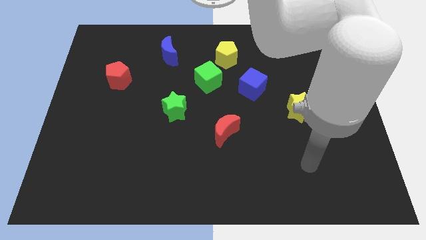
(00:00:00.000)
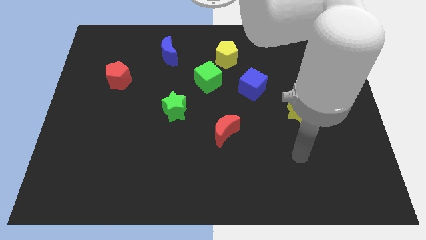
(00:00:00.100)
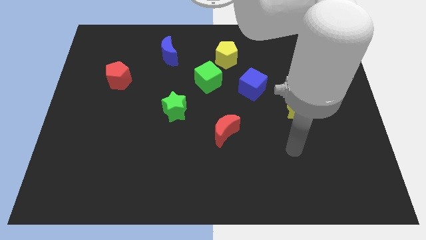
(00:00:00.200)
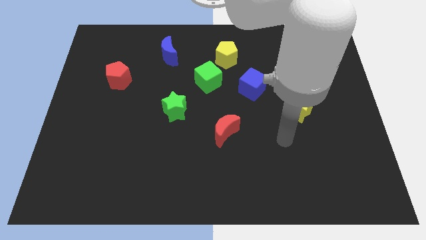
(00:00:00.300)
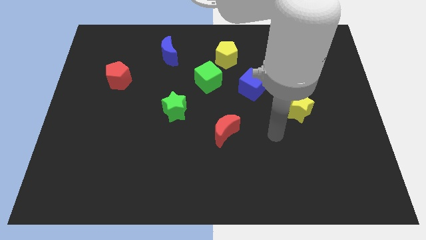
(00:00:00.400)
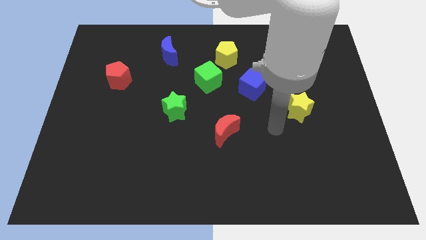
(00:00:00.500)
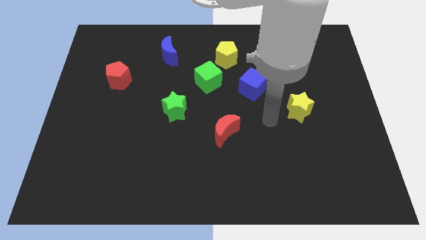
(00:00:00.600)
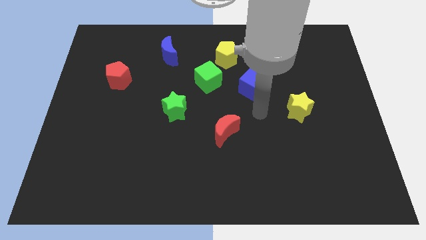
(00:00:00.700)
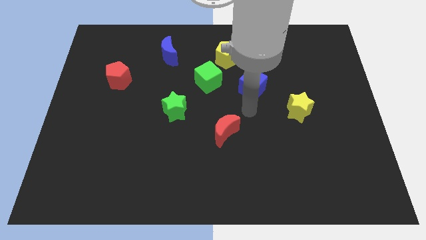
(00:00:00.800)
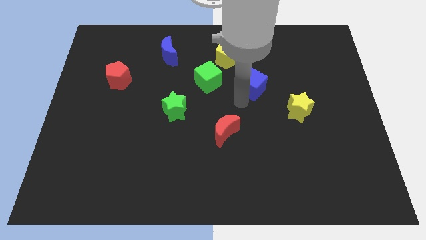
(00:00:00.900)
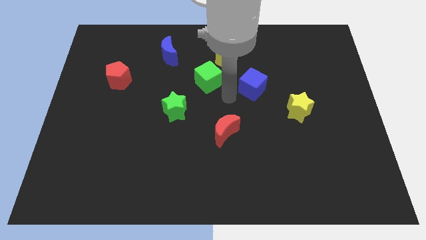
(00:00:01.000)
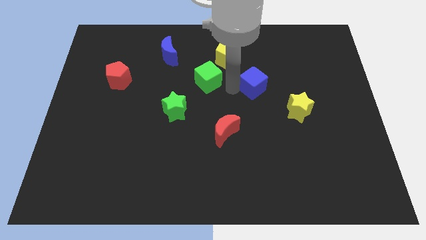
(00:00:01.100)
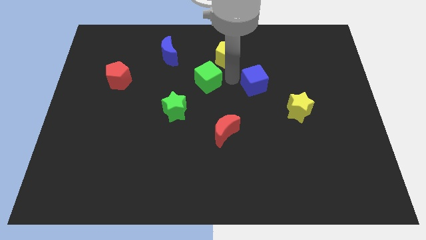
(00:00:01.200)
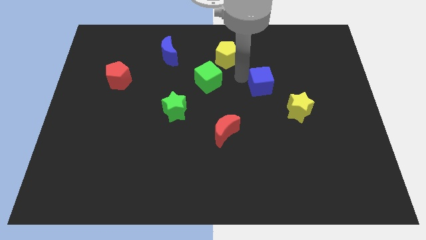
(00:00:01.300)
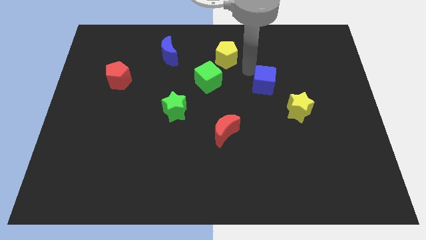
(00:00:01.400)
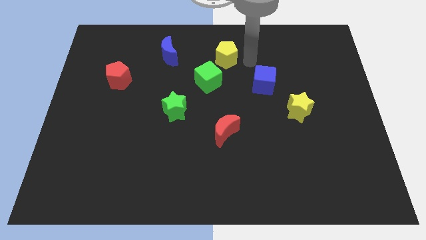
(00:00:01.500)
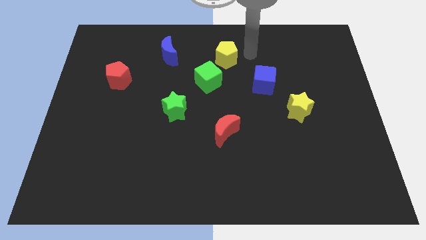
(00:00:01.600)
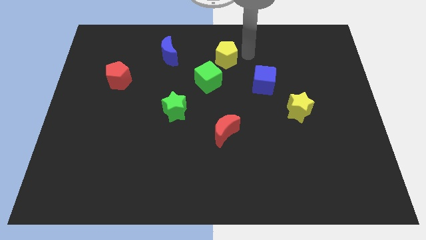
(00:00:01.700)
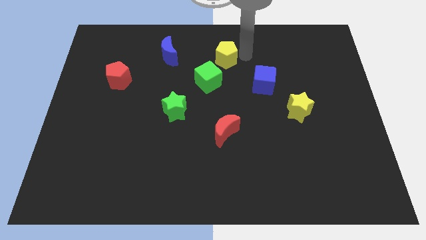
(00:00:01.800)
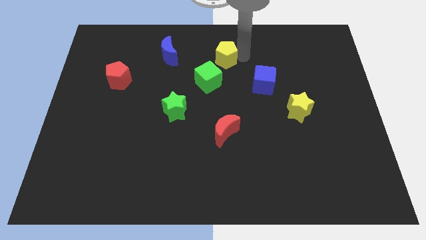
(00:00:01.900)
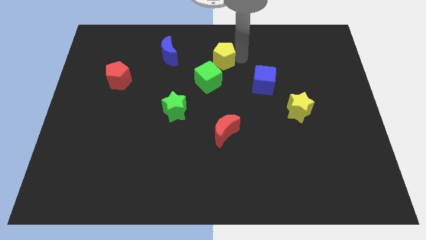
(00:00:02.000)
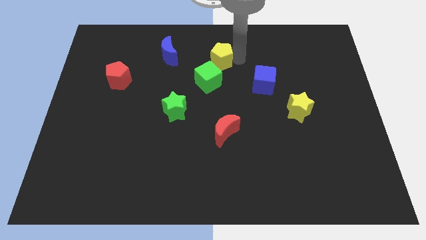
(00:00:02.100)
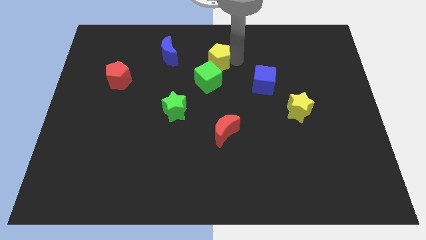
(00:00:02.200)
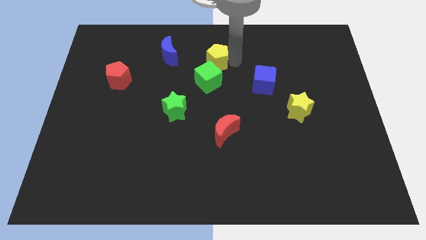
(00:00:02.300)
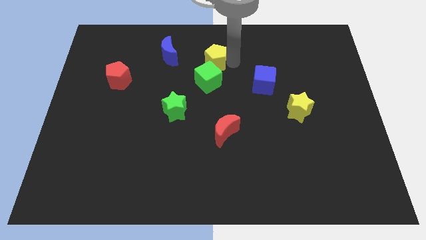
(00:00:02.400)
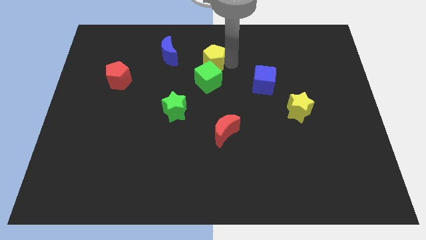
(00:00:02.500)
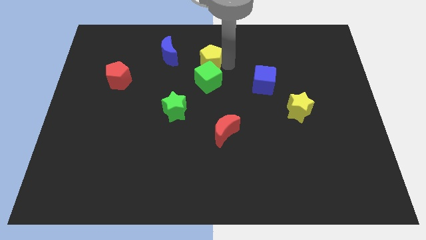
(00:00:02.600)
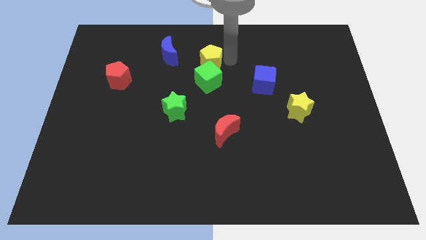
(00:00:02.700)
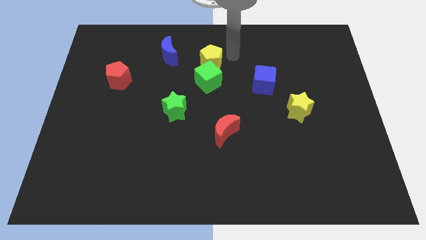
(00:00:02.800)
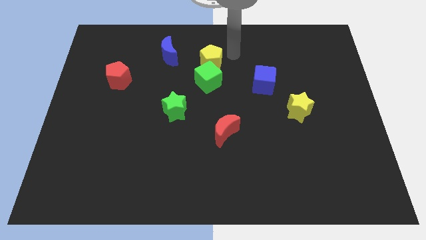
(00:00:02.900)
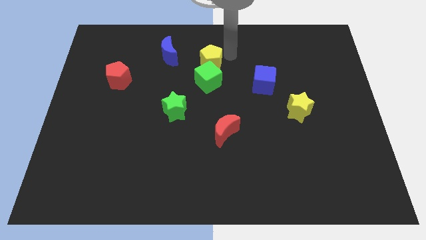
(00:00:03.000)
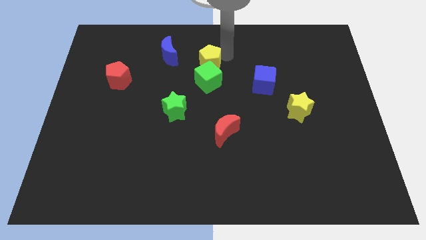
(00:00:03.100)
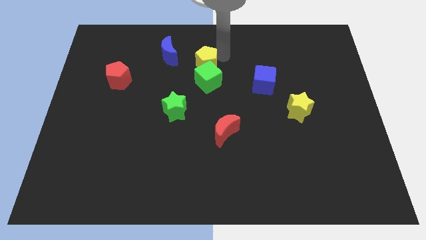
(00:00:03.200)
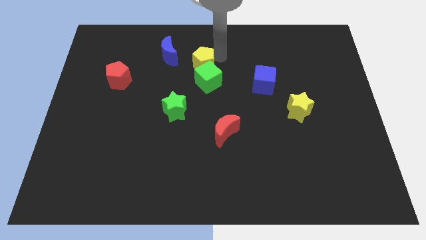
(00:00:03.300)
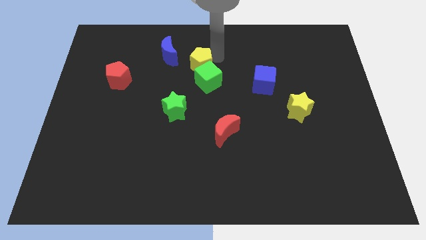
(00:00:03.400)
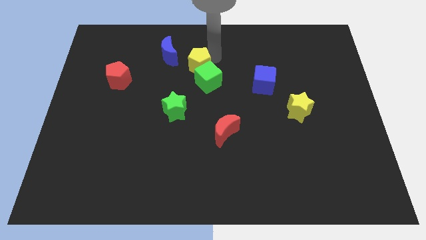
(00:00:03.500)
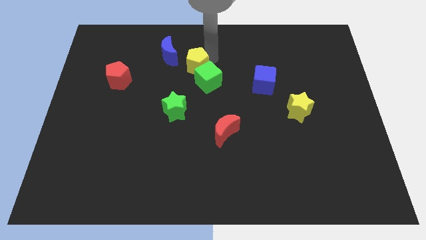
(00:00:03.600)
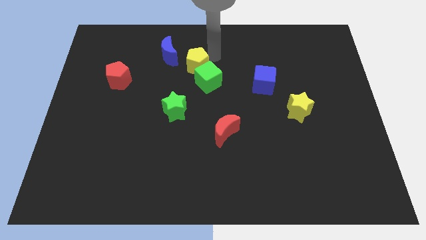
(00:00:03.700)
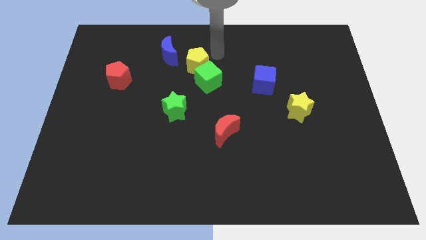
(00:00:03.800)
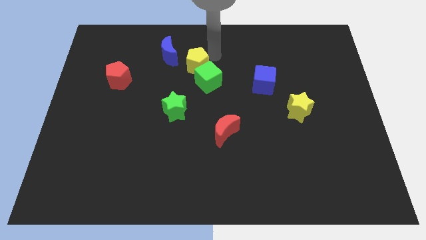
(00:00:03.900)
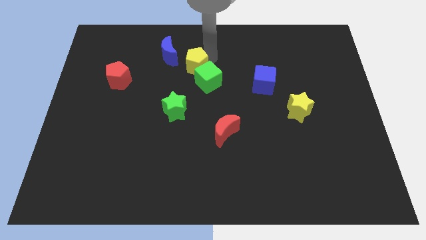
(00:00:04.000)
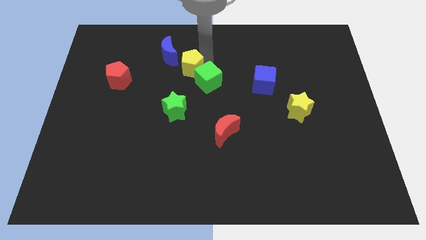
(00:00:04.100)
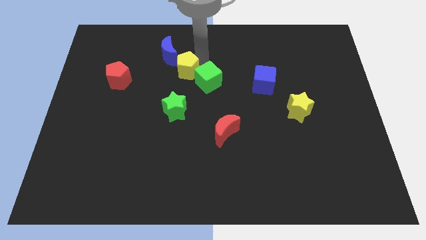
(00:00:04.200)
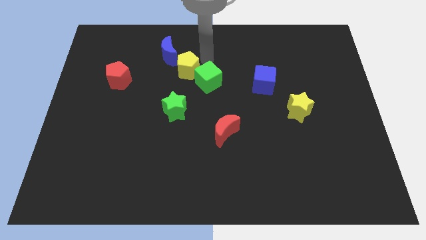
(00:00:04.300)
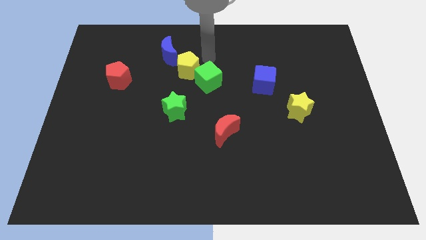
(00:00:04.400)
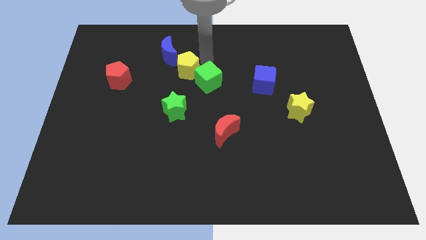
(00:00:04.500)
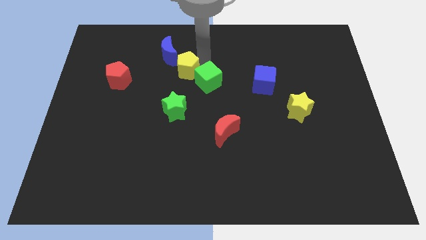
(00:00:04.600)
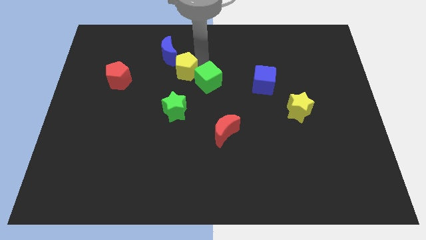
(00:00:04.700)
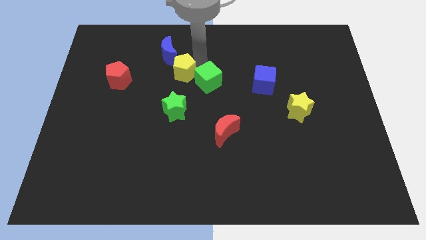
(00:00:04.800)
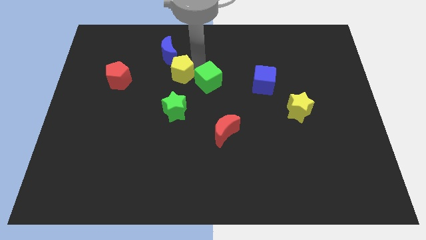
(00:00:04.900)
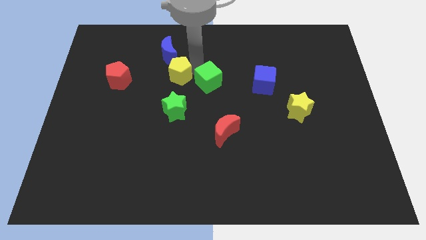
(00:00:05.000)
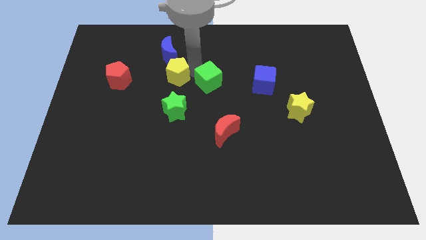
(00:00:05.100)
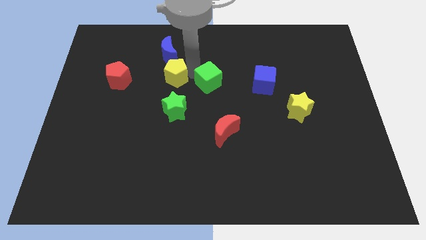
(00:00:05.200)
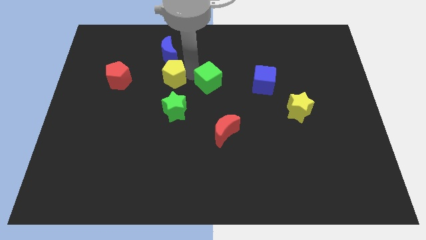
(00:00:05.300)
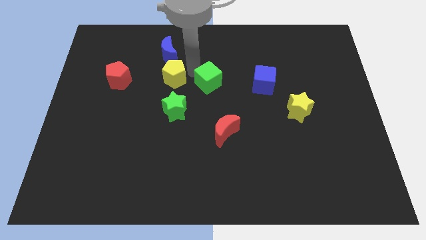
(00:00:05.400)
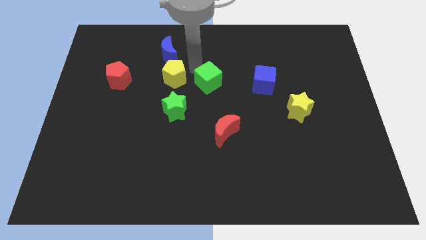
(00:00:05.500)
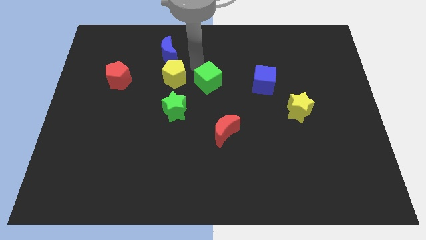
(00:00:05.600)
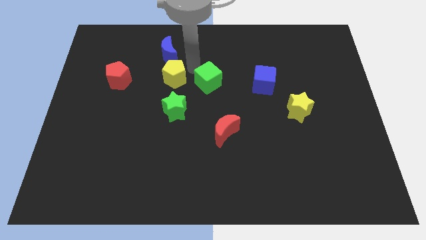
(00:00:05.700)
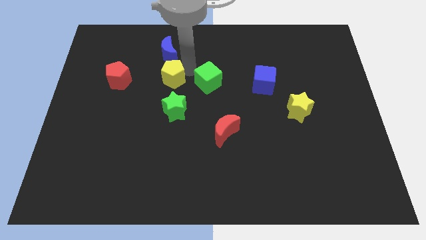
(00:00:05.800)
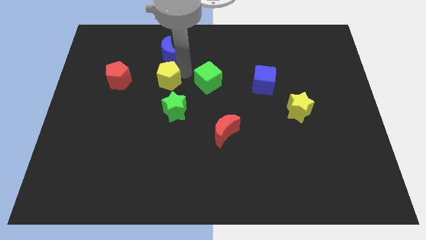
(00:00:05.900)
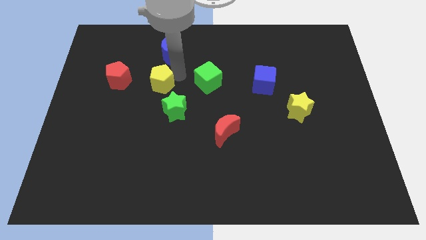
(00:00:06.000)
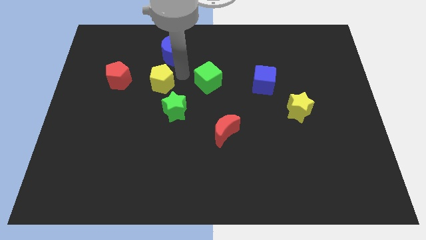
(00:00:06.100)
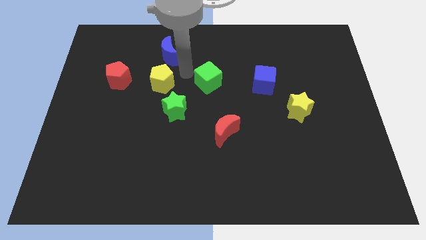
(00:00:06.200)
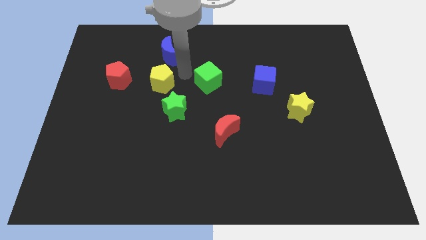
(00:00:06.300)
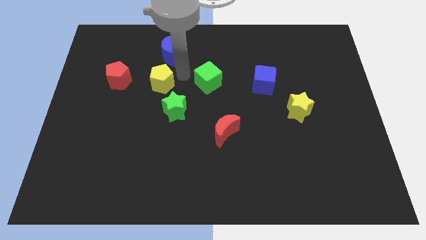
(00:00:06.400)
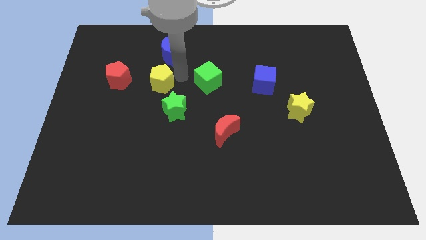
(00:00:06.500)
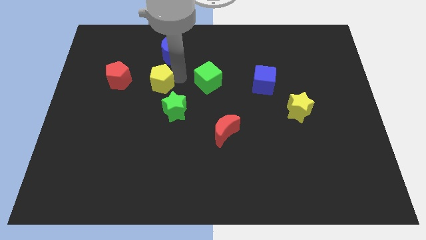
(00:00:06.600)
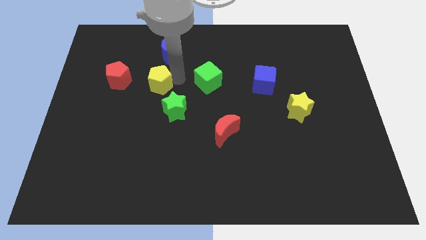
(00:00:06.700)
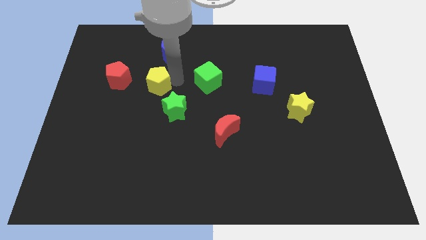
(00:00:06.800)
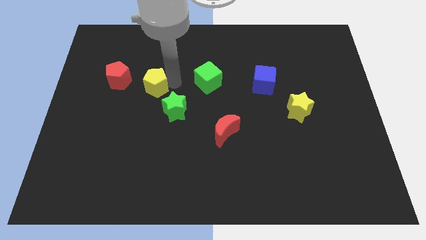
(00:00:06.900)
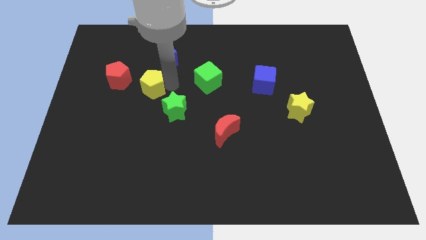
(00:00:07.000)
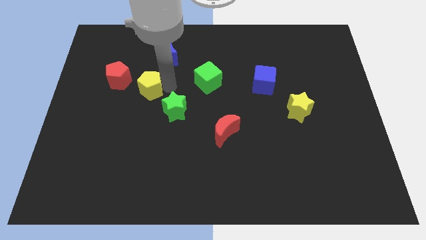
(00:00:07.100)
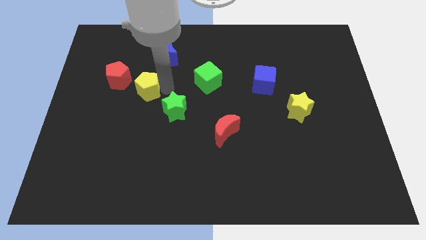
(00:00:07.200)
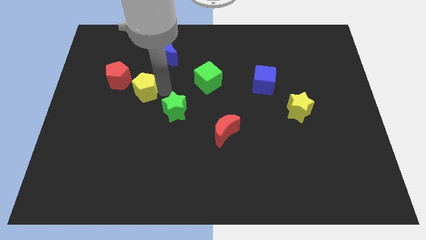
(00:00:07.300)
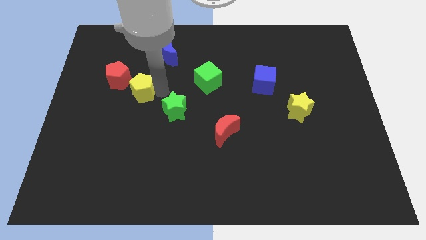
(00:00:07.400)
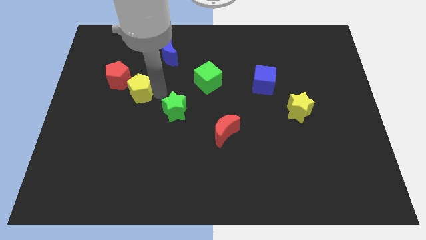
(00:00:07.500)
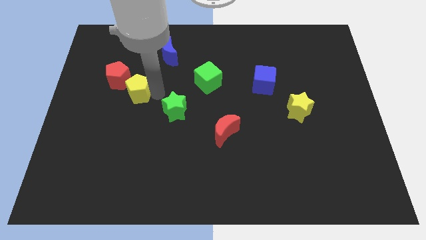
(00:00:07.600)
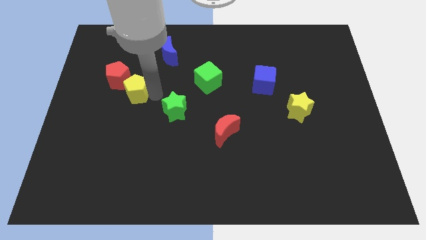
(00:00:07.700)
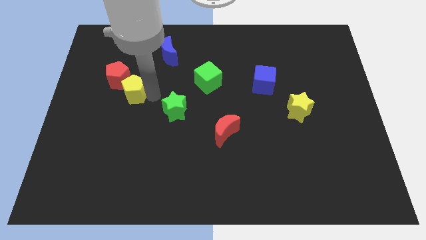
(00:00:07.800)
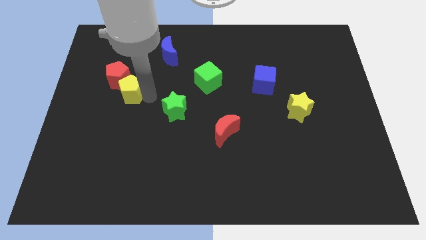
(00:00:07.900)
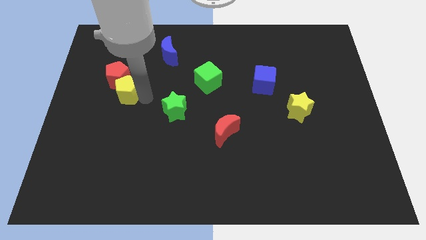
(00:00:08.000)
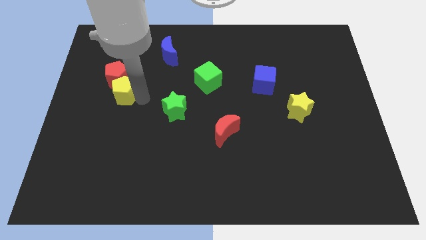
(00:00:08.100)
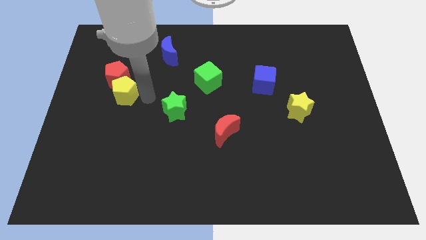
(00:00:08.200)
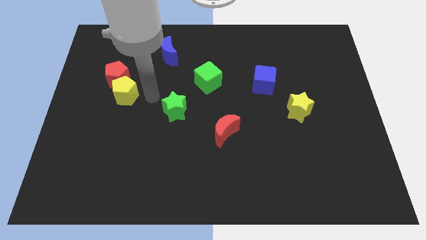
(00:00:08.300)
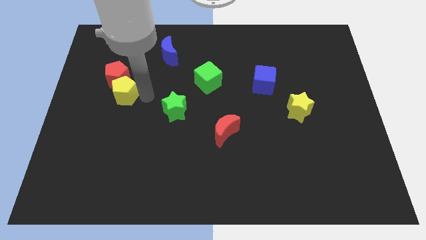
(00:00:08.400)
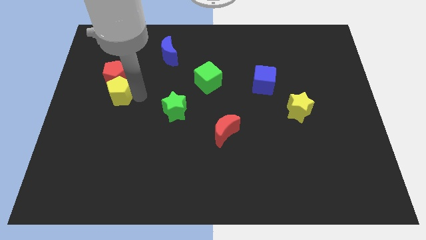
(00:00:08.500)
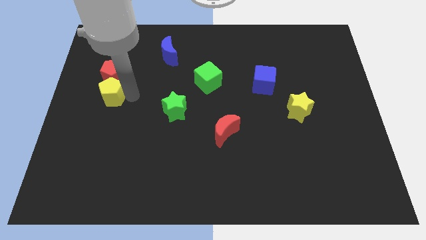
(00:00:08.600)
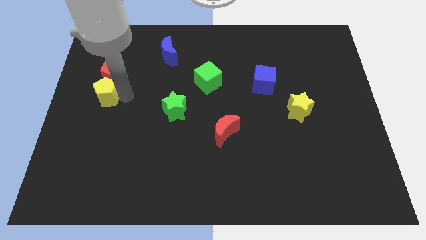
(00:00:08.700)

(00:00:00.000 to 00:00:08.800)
push the yellow pentagon to the left side of the board
